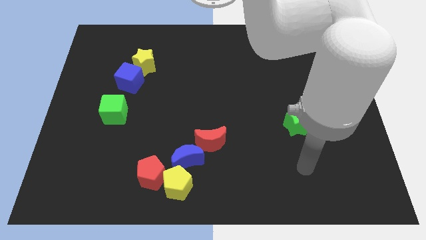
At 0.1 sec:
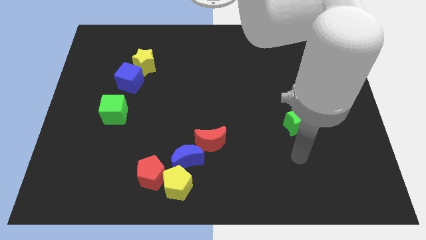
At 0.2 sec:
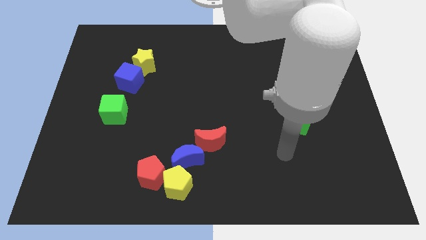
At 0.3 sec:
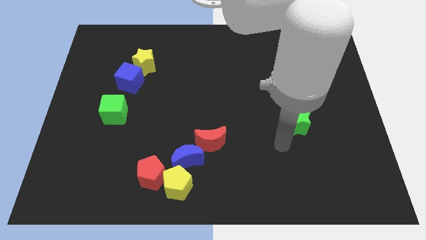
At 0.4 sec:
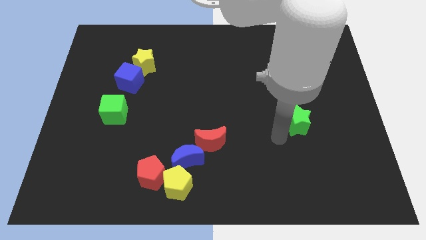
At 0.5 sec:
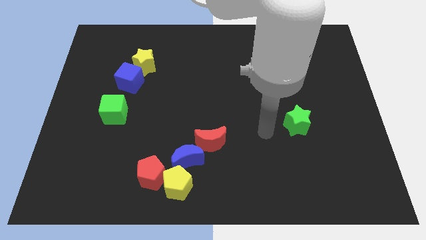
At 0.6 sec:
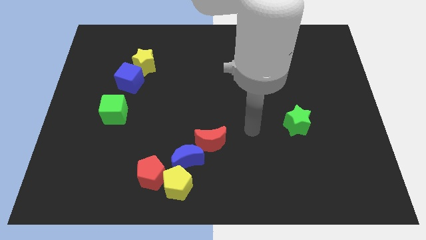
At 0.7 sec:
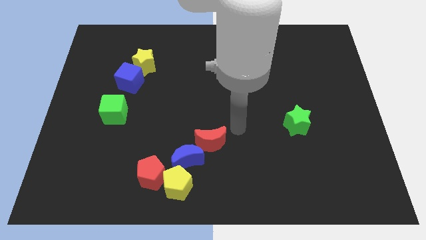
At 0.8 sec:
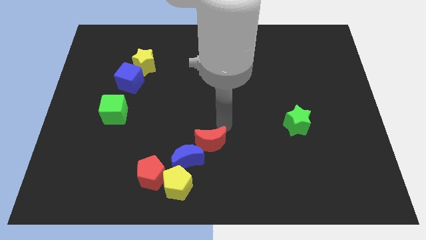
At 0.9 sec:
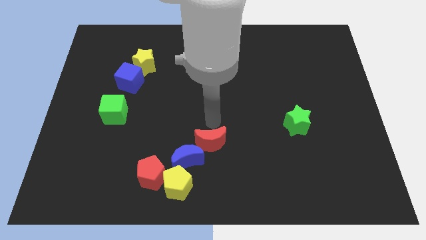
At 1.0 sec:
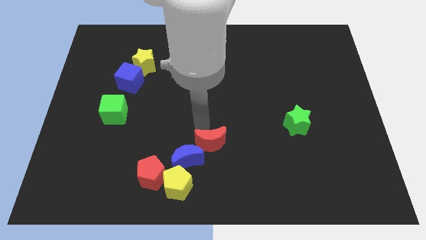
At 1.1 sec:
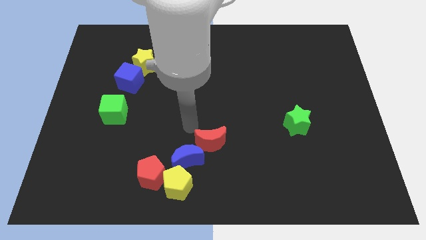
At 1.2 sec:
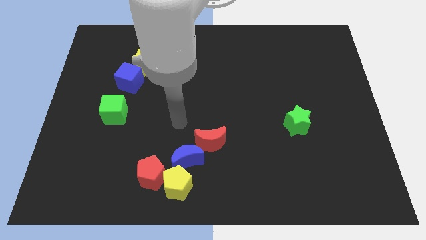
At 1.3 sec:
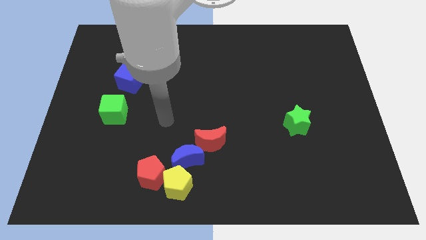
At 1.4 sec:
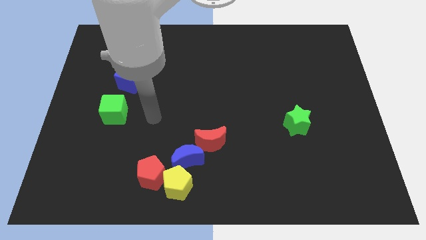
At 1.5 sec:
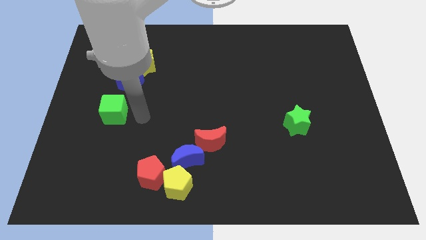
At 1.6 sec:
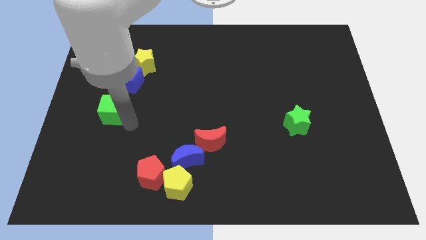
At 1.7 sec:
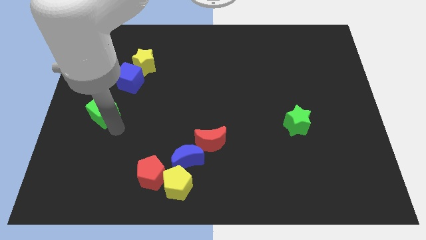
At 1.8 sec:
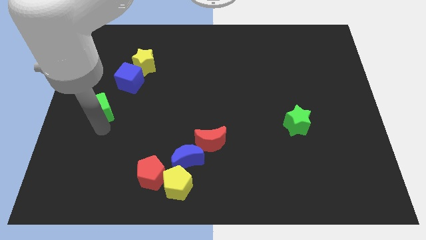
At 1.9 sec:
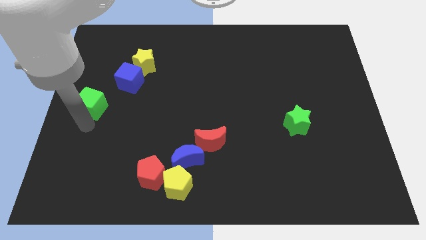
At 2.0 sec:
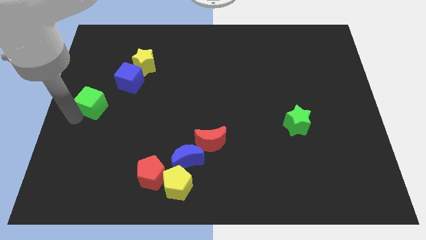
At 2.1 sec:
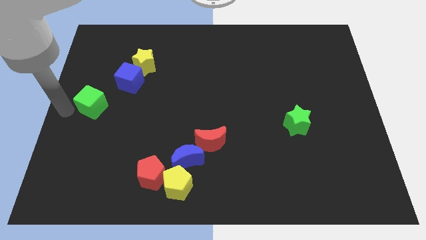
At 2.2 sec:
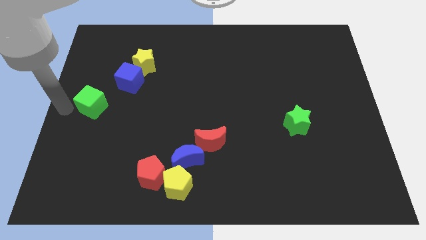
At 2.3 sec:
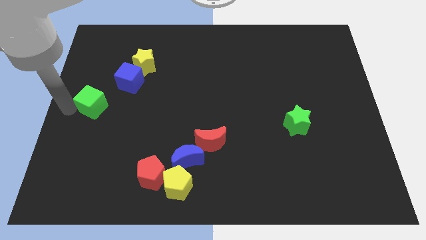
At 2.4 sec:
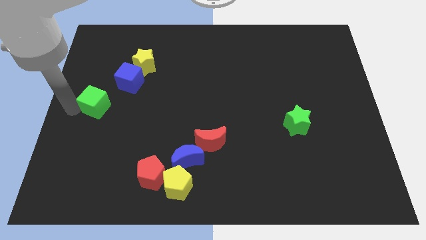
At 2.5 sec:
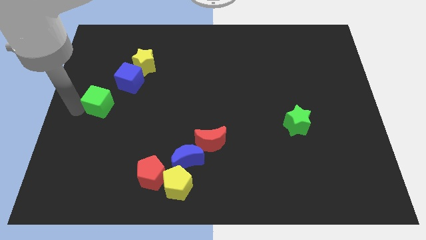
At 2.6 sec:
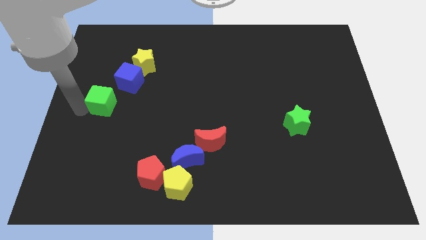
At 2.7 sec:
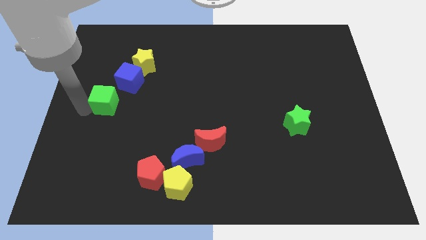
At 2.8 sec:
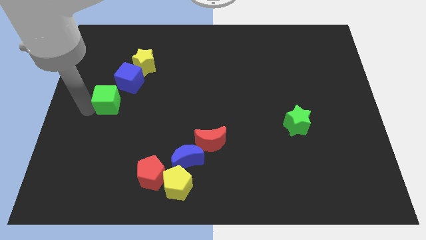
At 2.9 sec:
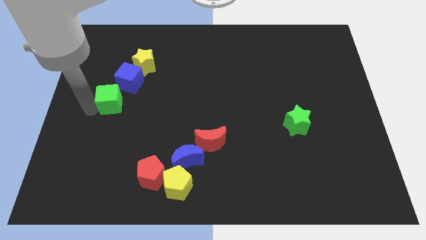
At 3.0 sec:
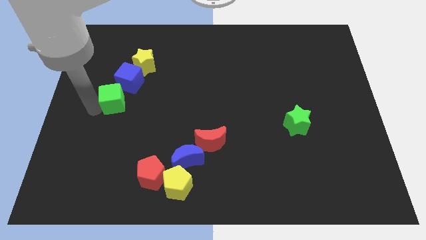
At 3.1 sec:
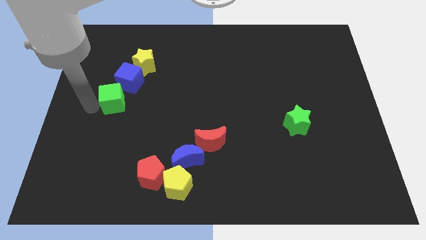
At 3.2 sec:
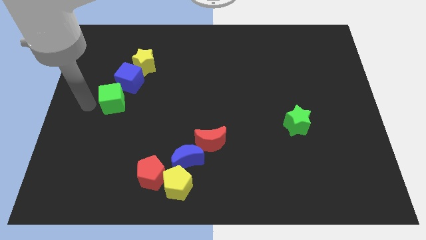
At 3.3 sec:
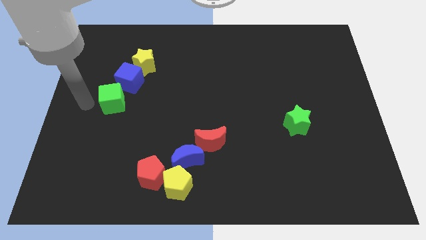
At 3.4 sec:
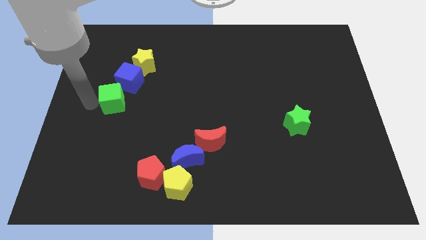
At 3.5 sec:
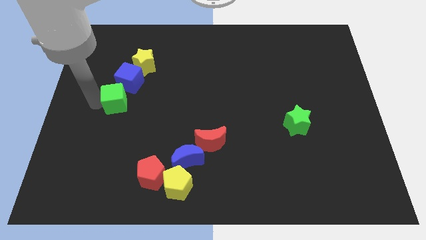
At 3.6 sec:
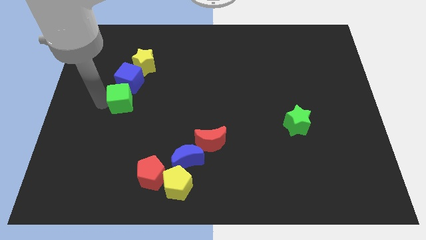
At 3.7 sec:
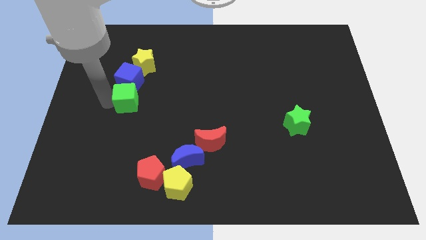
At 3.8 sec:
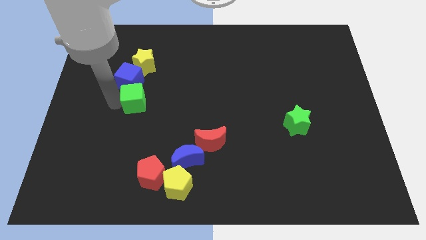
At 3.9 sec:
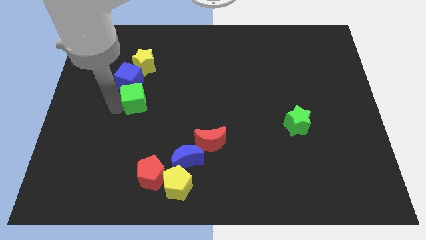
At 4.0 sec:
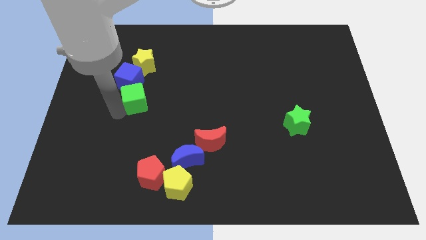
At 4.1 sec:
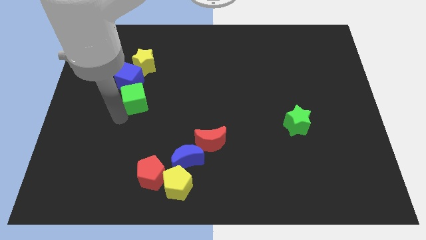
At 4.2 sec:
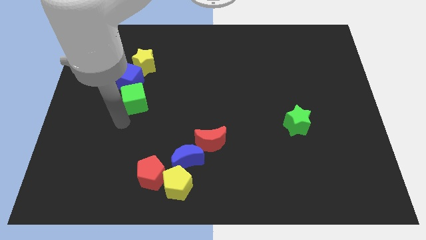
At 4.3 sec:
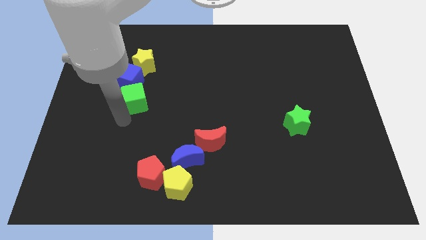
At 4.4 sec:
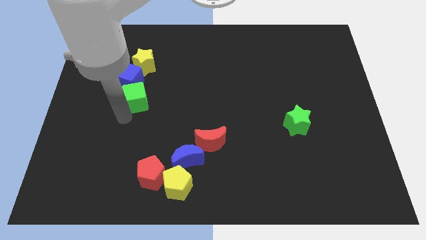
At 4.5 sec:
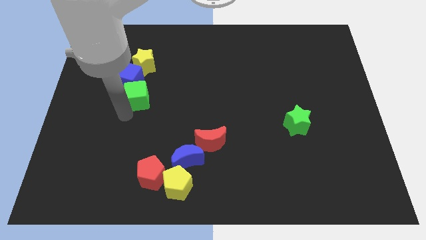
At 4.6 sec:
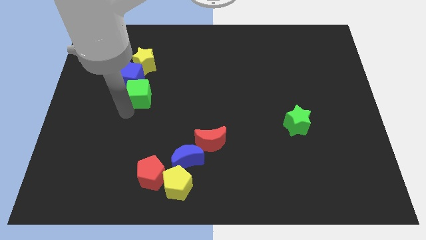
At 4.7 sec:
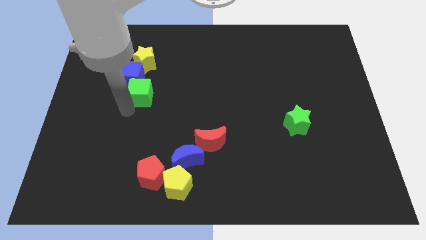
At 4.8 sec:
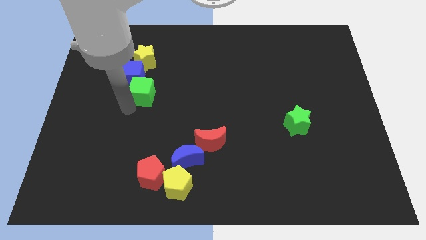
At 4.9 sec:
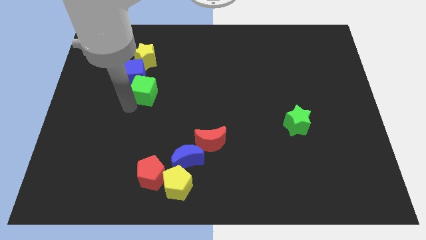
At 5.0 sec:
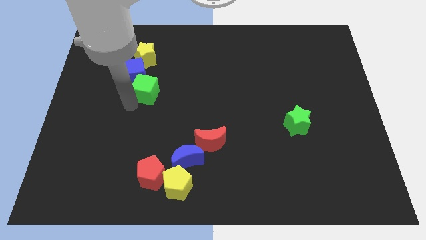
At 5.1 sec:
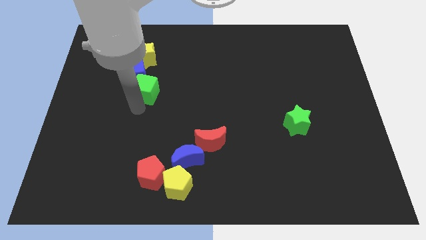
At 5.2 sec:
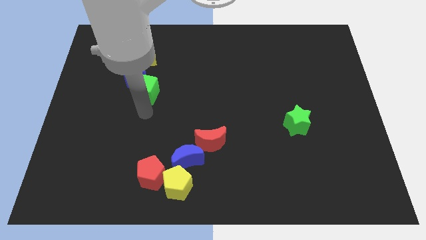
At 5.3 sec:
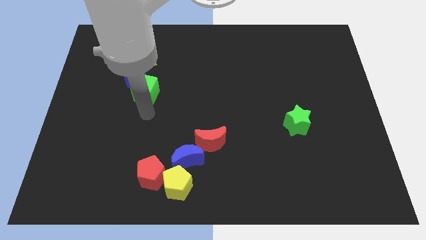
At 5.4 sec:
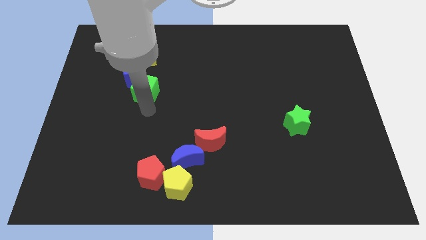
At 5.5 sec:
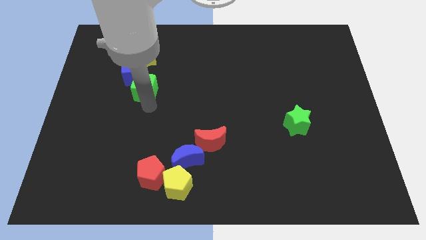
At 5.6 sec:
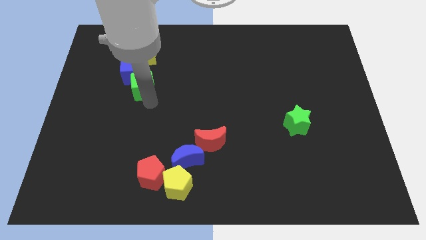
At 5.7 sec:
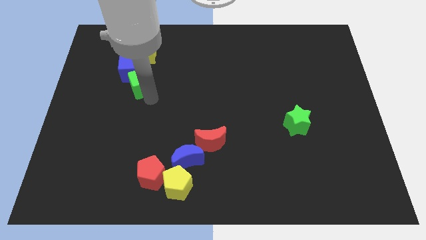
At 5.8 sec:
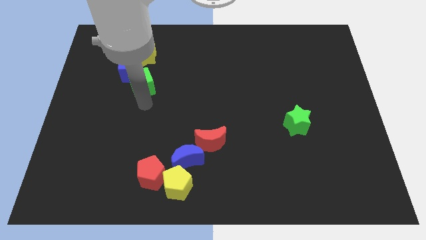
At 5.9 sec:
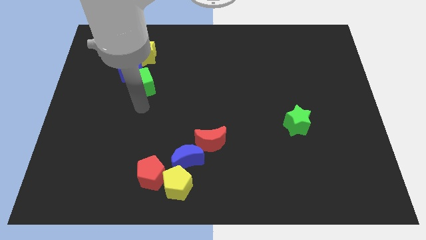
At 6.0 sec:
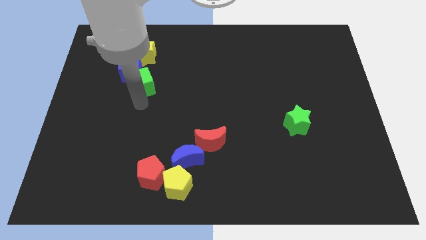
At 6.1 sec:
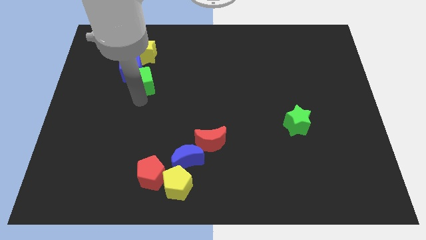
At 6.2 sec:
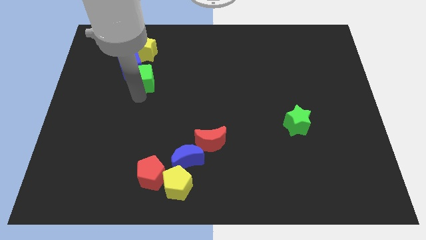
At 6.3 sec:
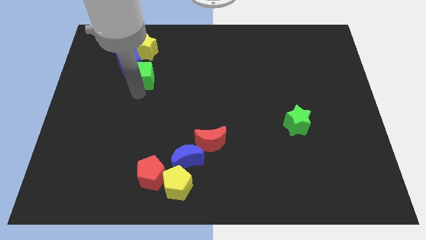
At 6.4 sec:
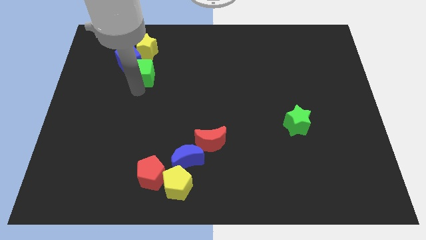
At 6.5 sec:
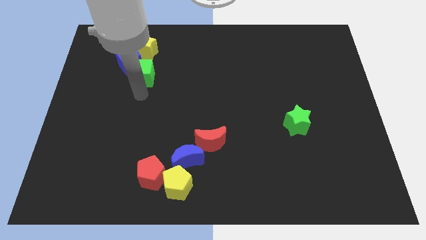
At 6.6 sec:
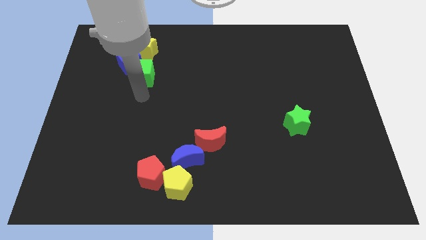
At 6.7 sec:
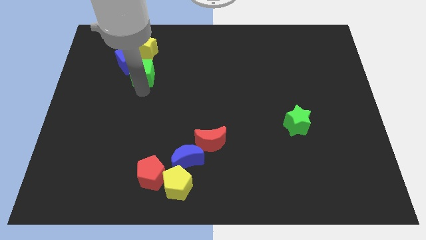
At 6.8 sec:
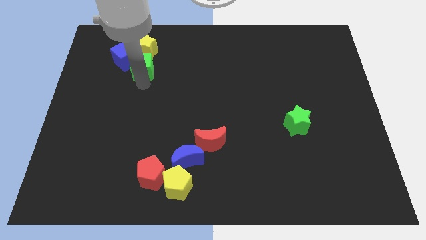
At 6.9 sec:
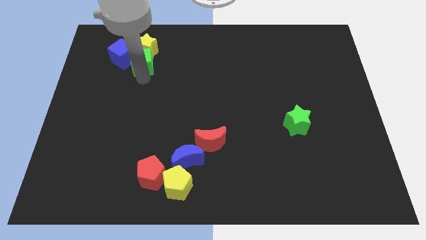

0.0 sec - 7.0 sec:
slide the green cube close to the yellow star
